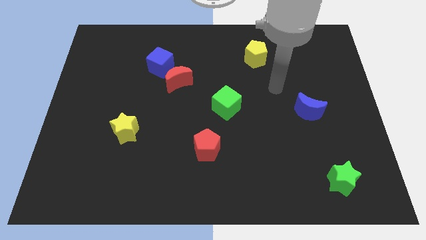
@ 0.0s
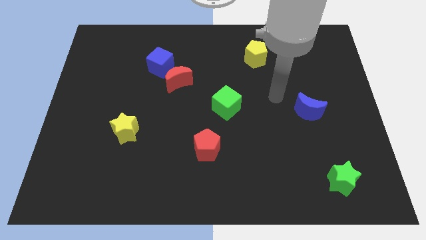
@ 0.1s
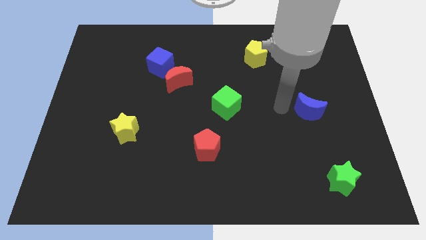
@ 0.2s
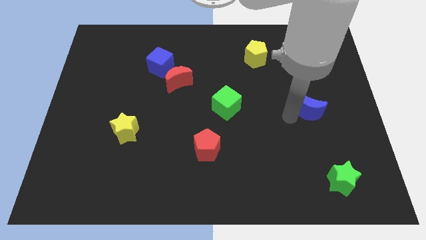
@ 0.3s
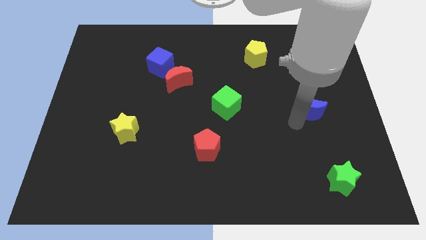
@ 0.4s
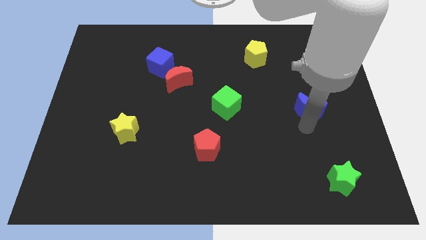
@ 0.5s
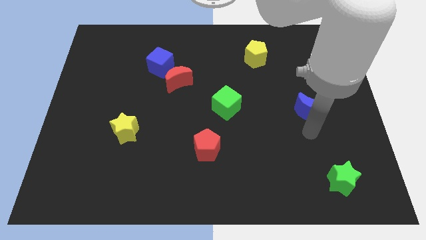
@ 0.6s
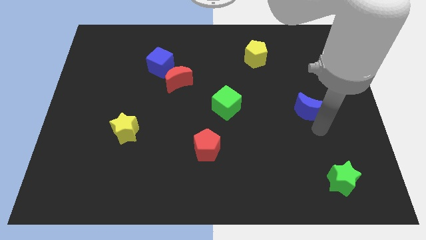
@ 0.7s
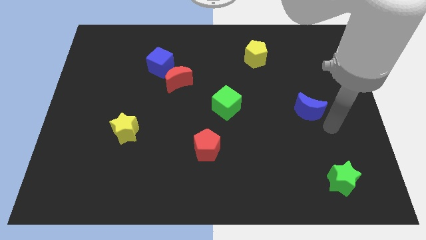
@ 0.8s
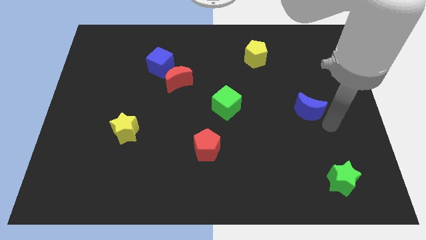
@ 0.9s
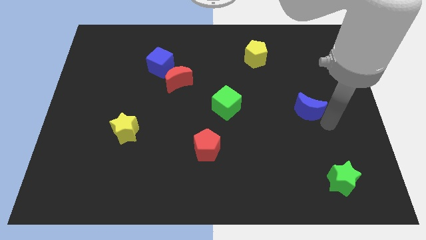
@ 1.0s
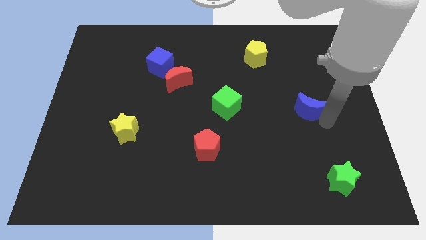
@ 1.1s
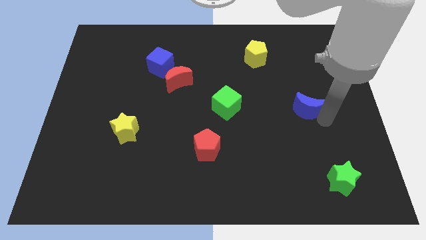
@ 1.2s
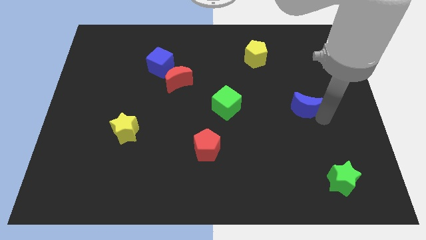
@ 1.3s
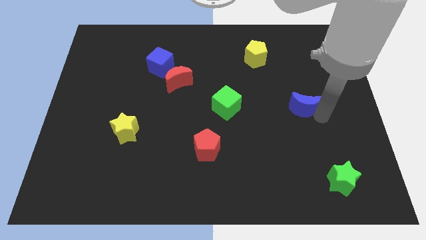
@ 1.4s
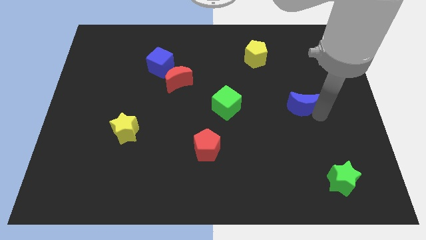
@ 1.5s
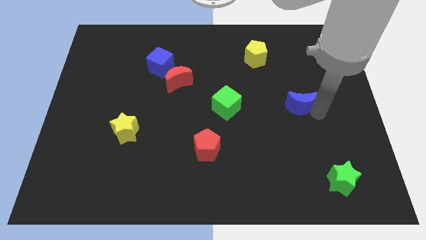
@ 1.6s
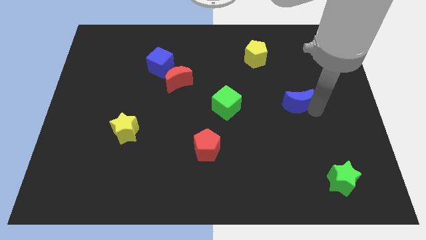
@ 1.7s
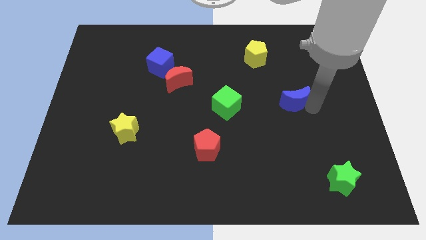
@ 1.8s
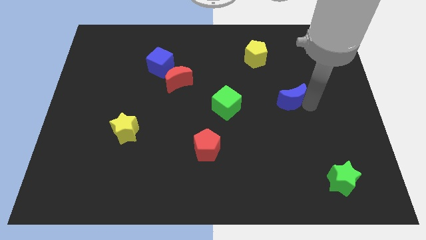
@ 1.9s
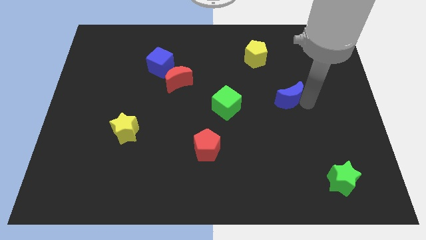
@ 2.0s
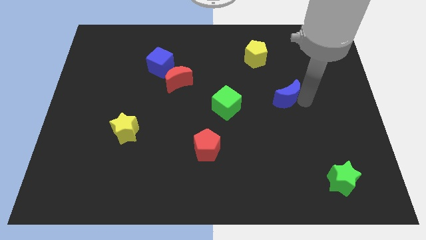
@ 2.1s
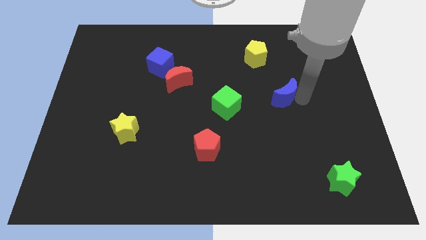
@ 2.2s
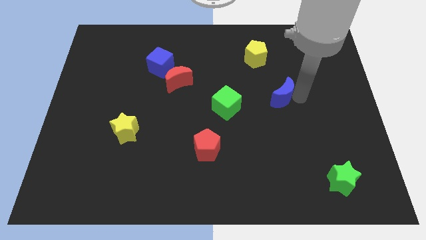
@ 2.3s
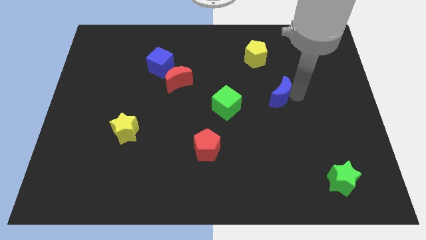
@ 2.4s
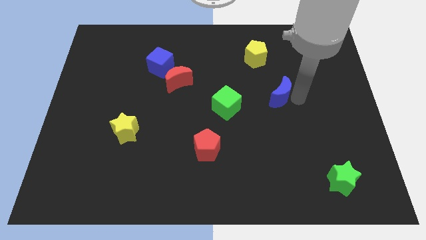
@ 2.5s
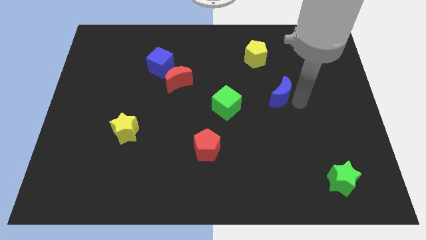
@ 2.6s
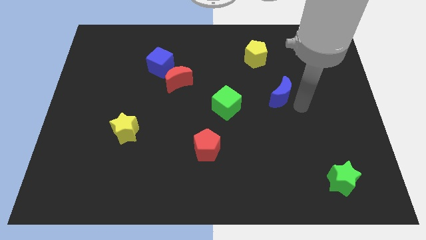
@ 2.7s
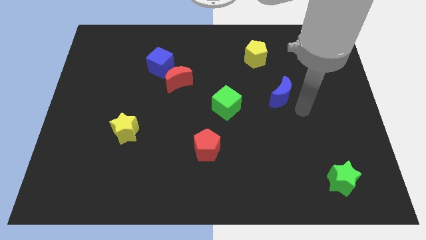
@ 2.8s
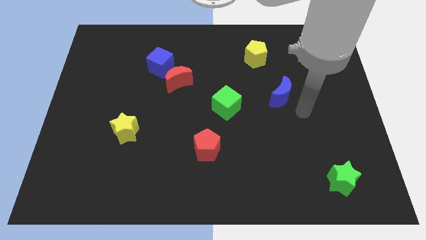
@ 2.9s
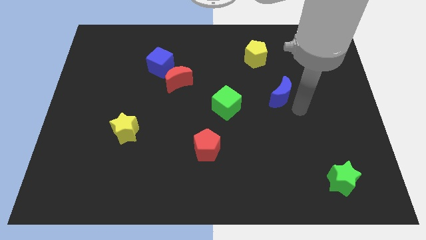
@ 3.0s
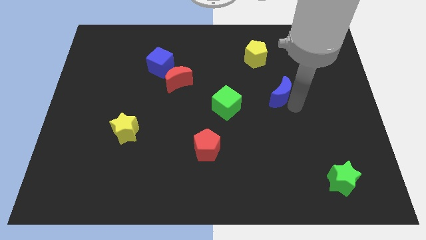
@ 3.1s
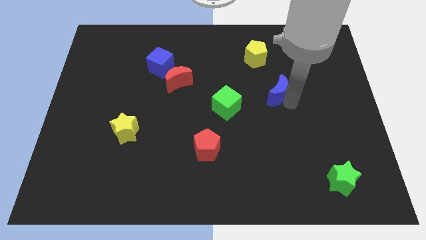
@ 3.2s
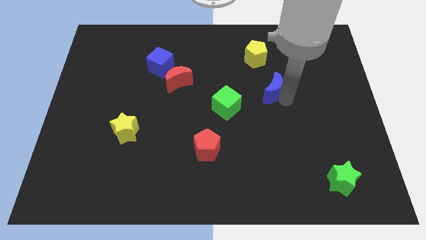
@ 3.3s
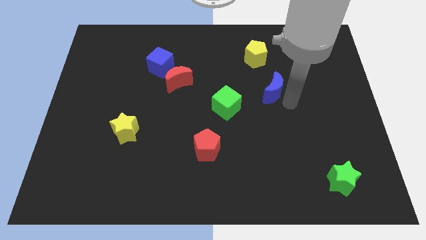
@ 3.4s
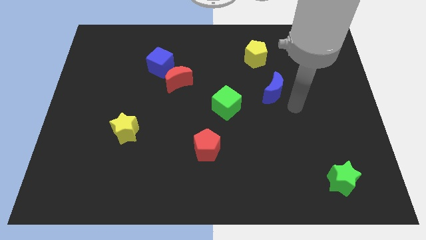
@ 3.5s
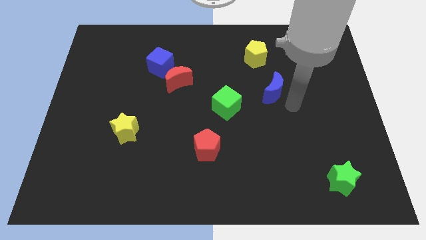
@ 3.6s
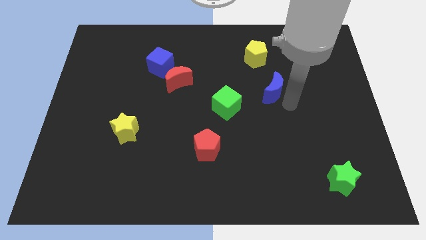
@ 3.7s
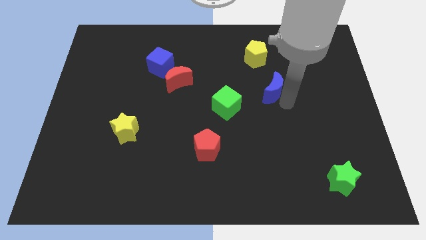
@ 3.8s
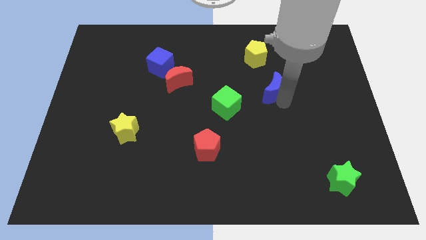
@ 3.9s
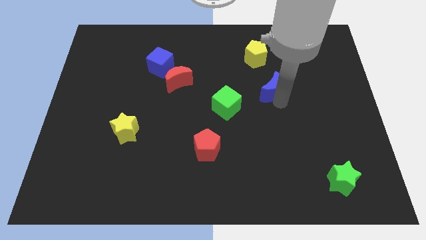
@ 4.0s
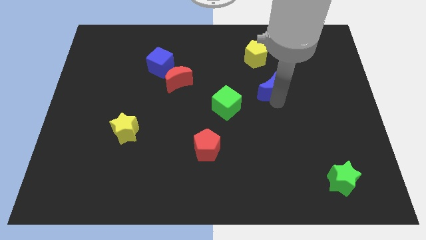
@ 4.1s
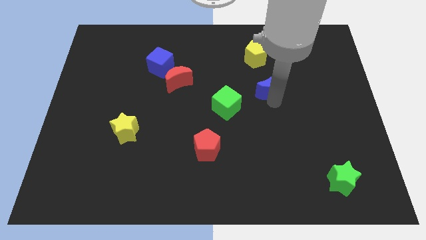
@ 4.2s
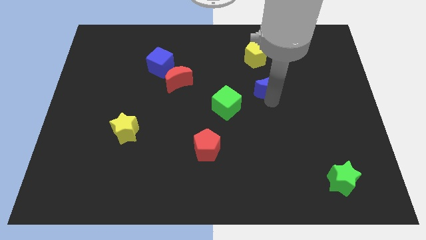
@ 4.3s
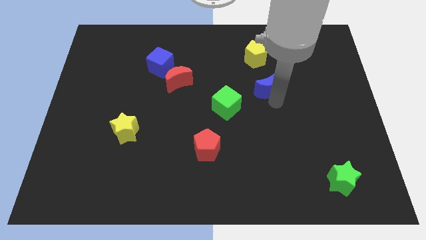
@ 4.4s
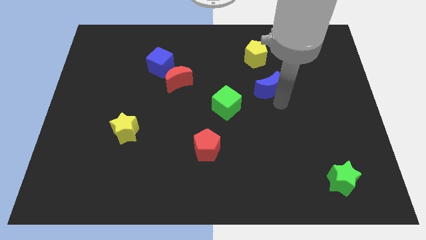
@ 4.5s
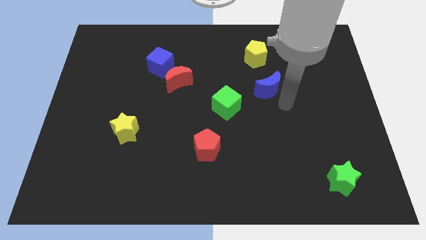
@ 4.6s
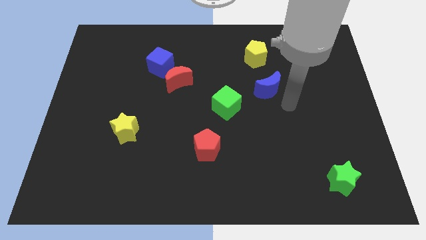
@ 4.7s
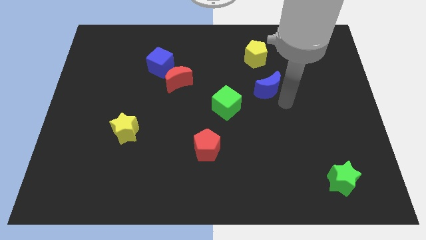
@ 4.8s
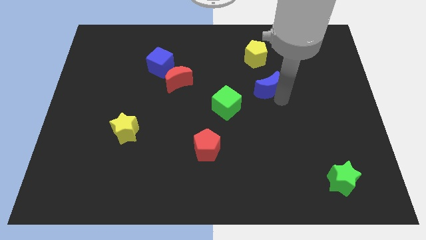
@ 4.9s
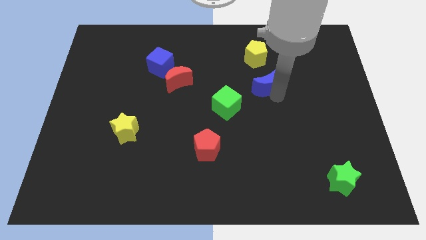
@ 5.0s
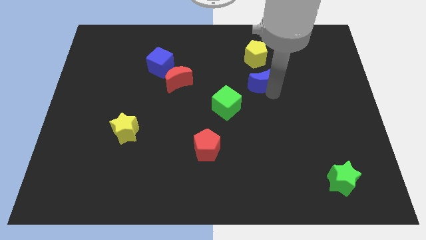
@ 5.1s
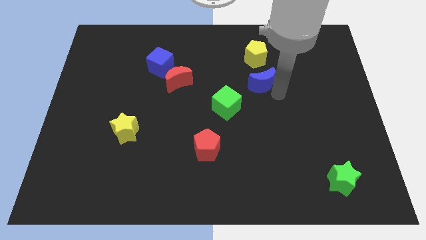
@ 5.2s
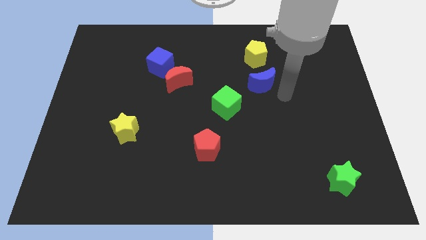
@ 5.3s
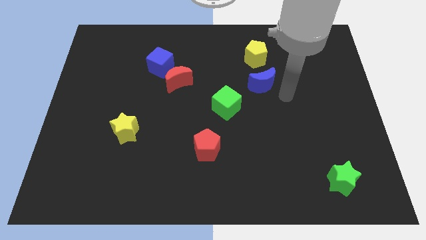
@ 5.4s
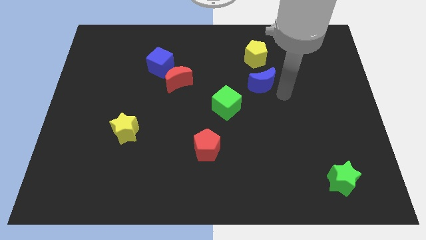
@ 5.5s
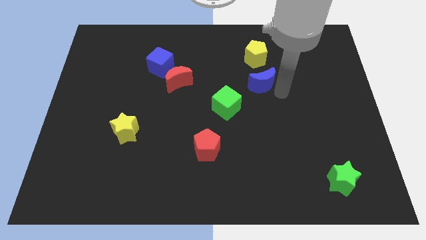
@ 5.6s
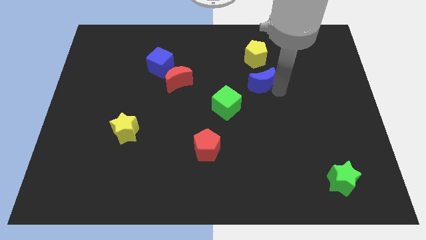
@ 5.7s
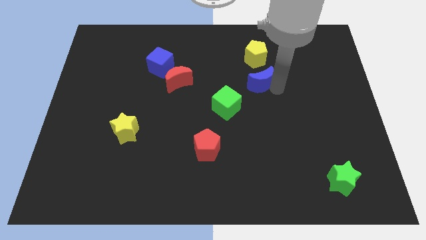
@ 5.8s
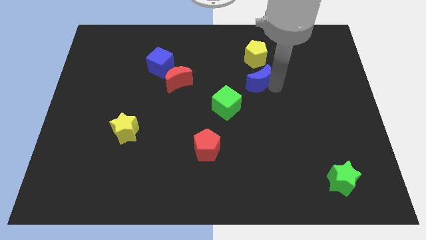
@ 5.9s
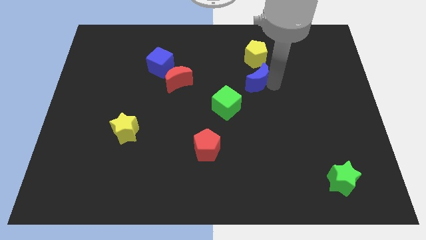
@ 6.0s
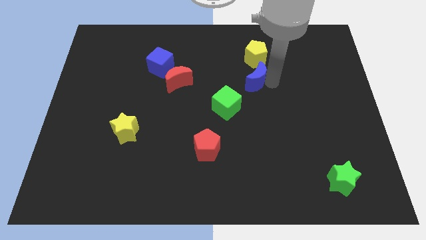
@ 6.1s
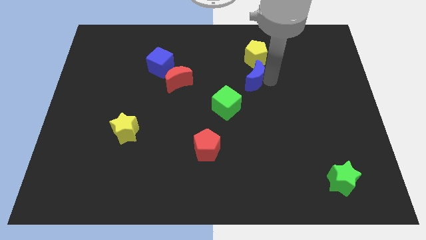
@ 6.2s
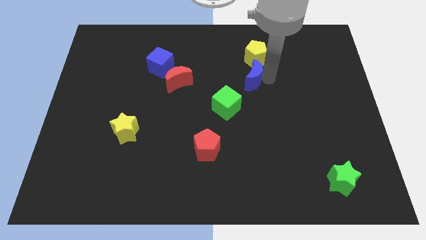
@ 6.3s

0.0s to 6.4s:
move the blue moon to the bottom left side of the yellow pentagon

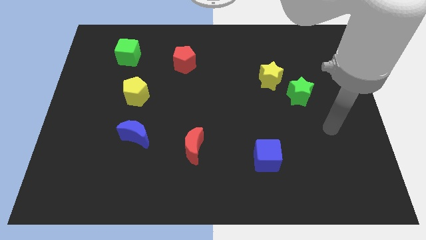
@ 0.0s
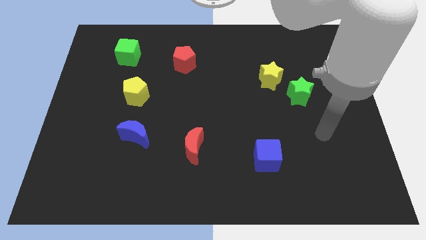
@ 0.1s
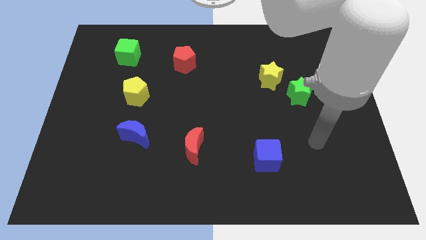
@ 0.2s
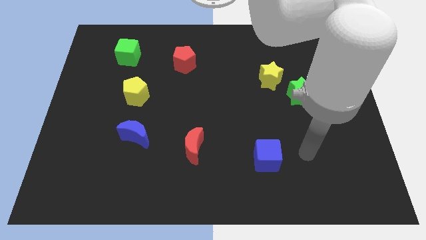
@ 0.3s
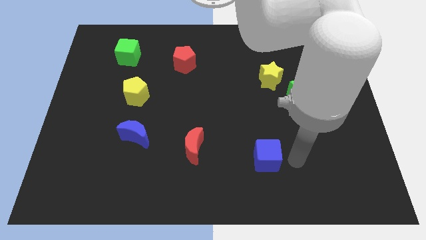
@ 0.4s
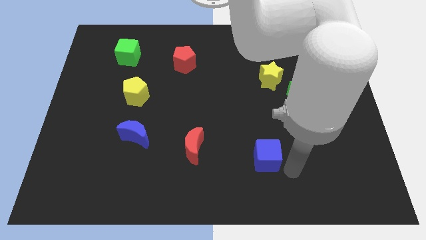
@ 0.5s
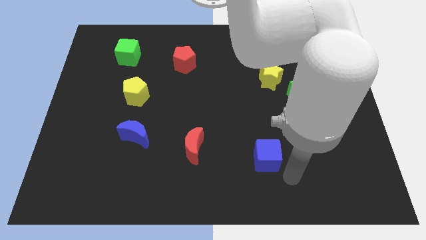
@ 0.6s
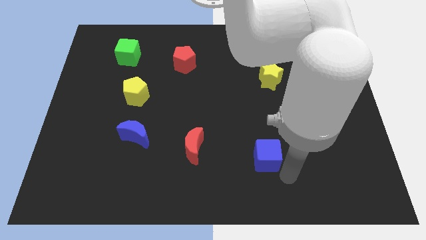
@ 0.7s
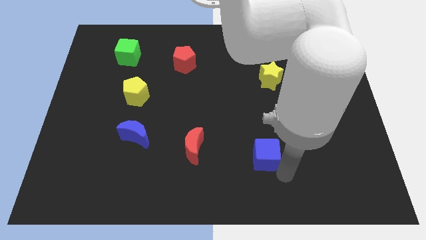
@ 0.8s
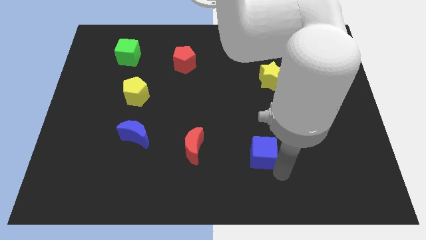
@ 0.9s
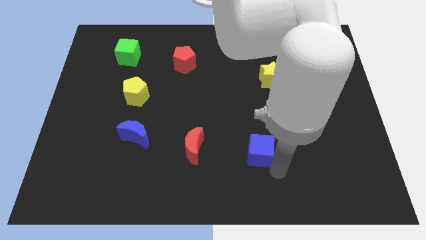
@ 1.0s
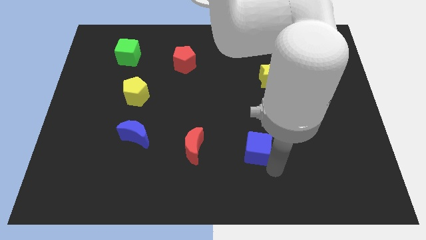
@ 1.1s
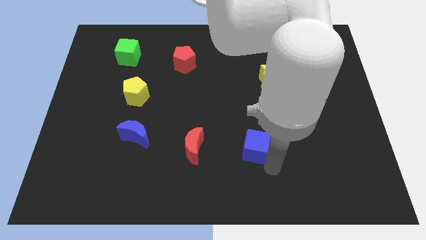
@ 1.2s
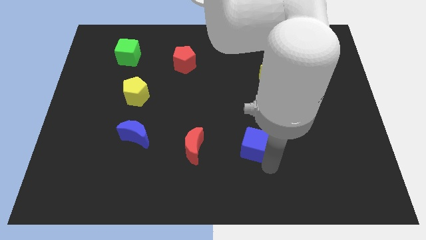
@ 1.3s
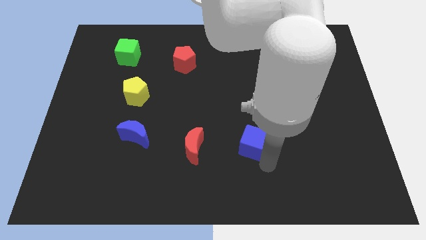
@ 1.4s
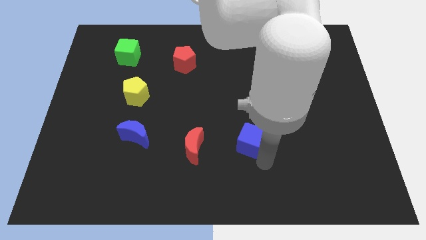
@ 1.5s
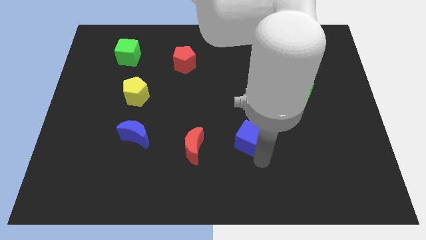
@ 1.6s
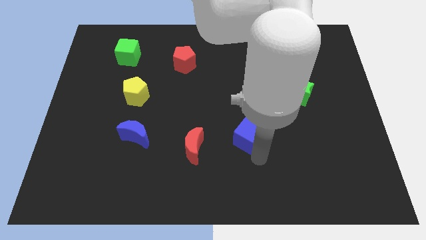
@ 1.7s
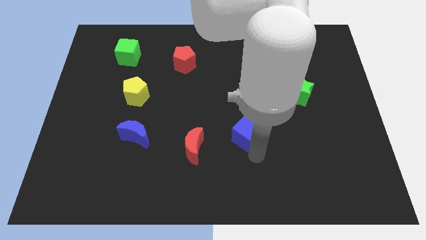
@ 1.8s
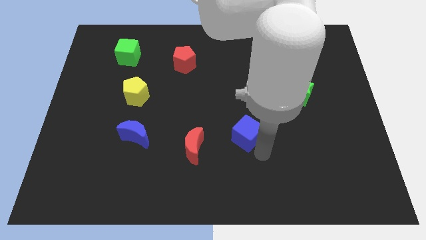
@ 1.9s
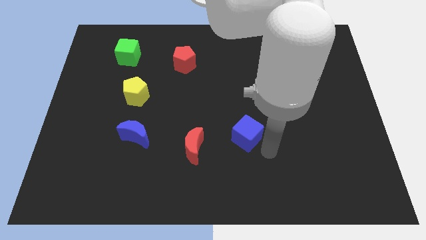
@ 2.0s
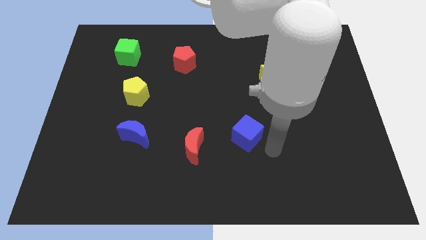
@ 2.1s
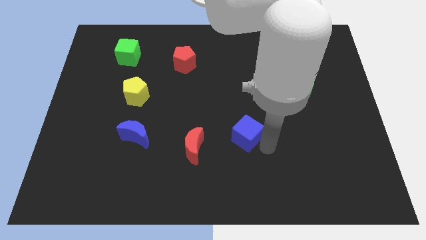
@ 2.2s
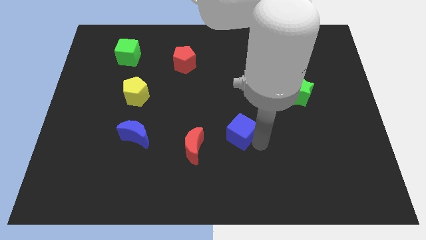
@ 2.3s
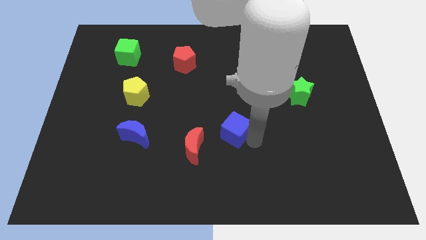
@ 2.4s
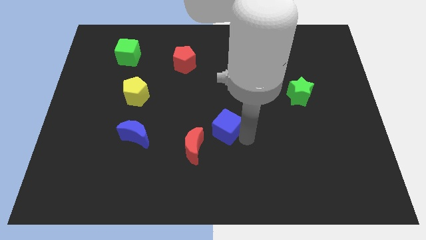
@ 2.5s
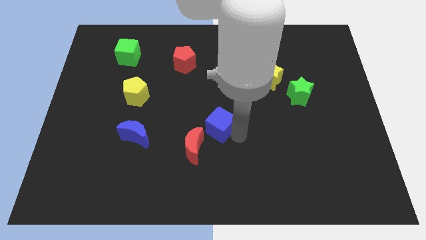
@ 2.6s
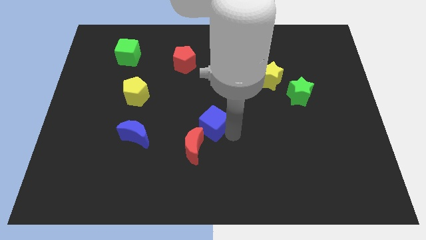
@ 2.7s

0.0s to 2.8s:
put the blue cube to the top side of the red moon
